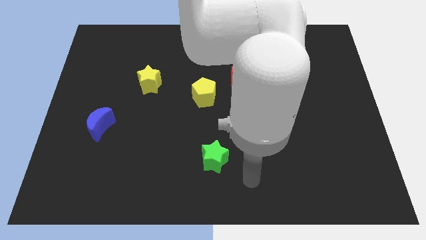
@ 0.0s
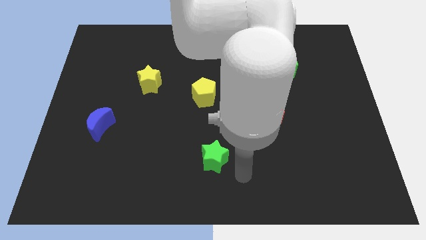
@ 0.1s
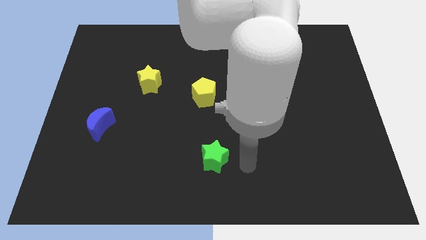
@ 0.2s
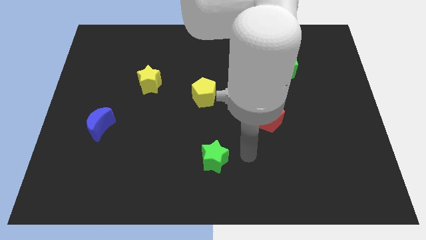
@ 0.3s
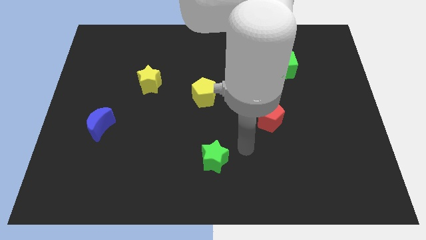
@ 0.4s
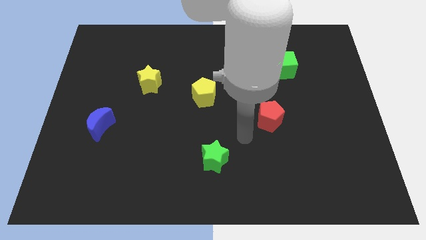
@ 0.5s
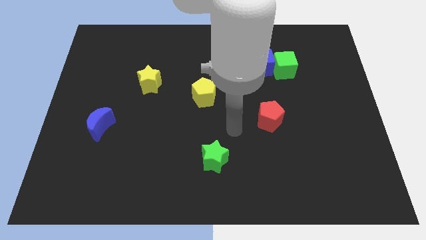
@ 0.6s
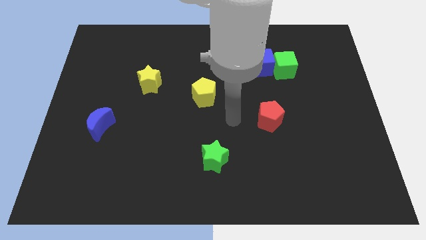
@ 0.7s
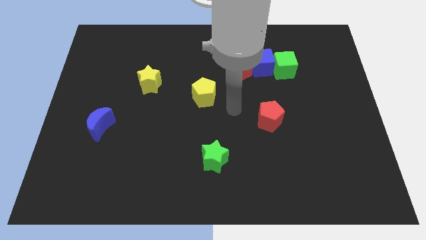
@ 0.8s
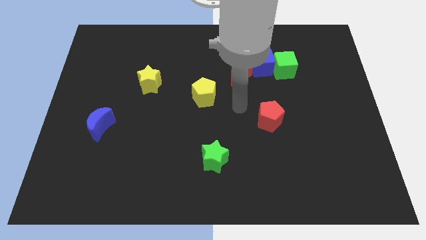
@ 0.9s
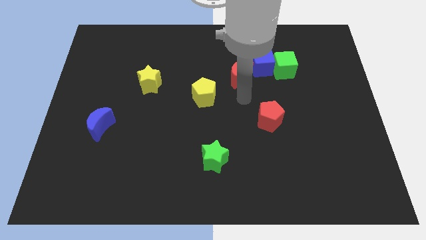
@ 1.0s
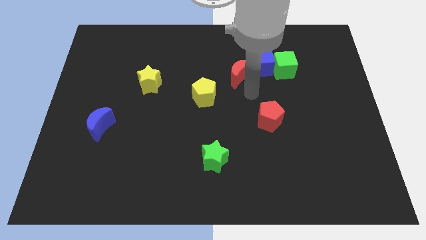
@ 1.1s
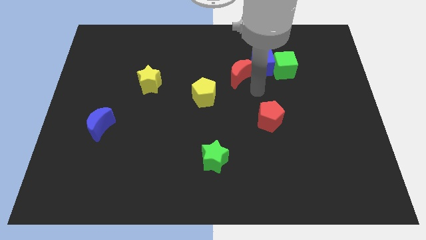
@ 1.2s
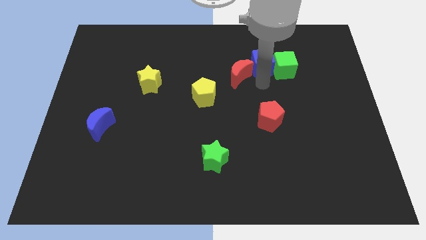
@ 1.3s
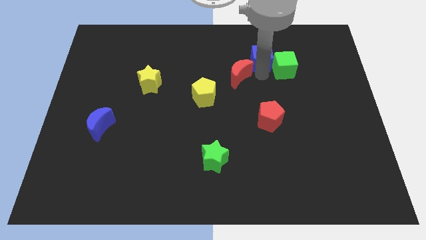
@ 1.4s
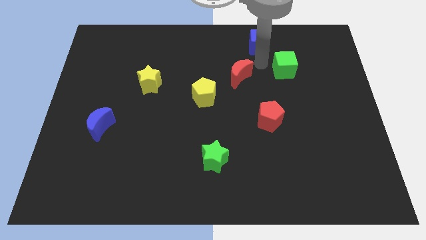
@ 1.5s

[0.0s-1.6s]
move the green cube away from the blue cube

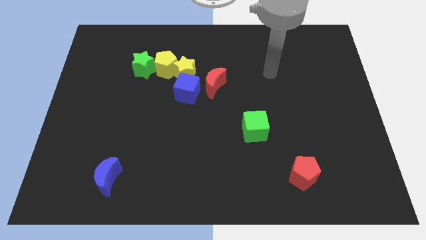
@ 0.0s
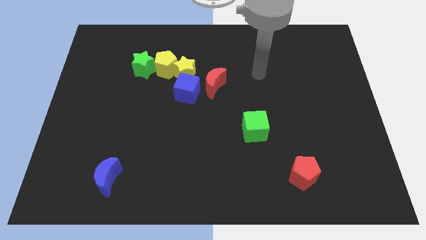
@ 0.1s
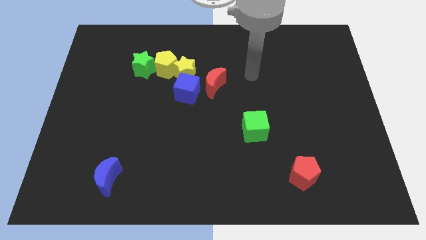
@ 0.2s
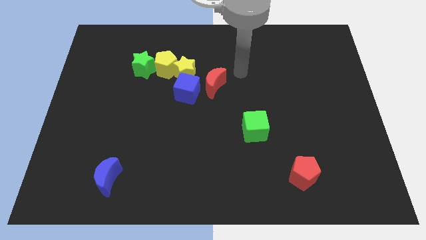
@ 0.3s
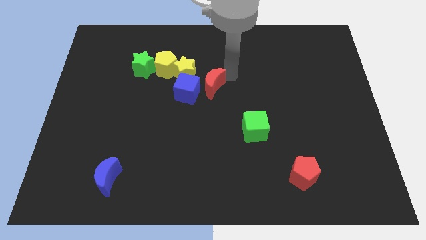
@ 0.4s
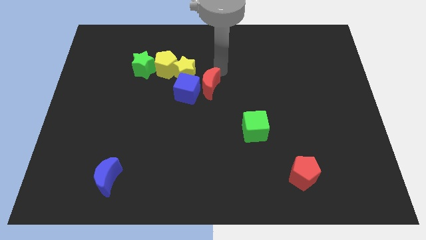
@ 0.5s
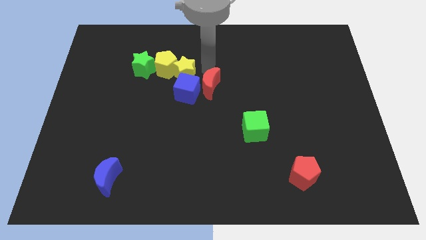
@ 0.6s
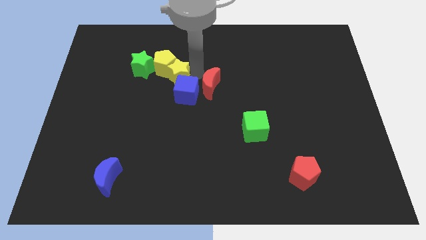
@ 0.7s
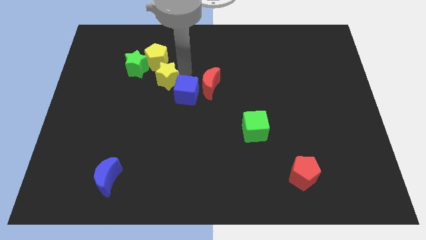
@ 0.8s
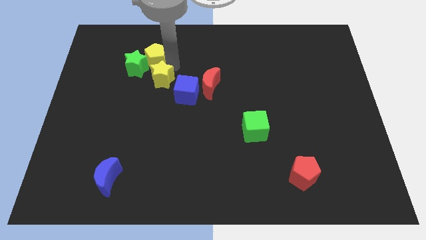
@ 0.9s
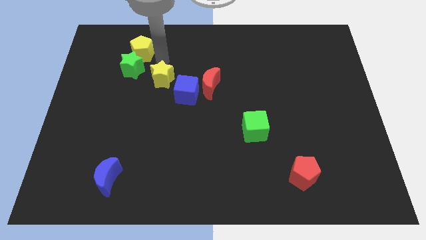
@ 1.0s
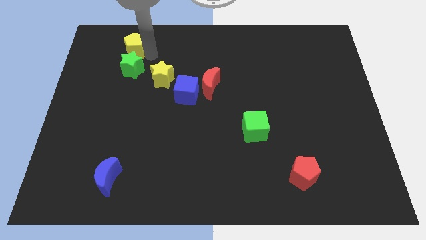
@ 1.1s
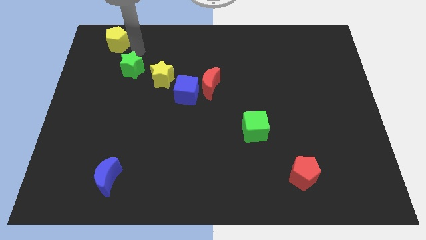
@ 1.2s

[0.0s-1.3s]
move the green star away from the yellow pentagon

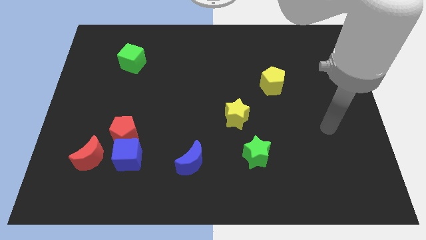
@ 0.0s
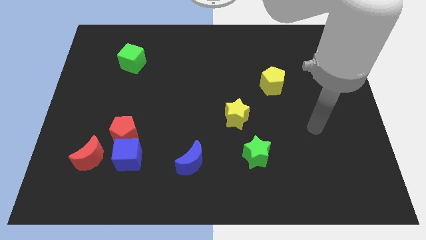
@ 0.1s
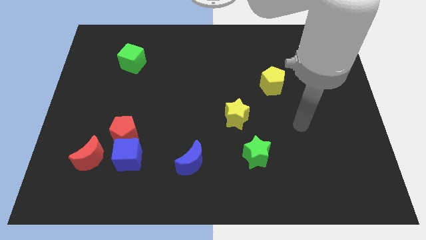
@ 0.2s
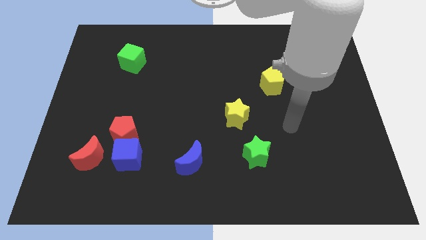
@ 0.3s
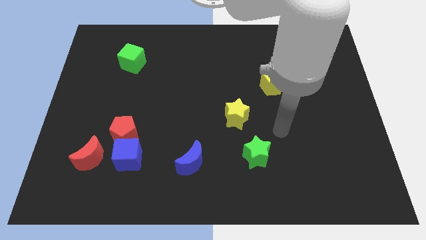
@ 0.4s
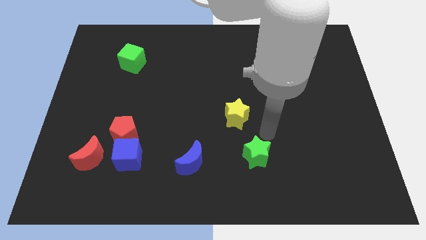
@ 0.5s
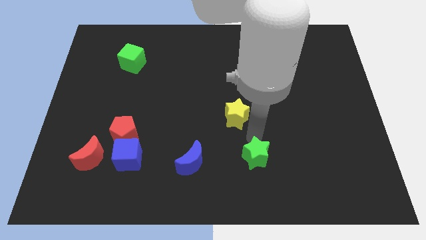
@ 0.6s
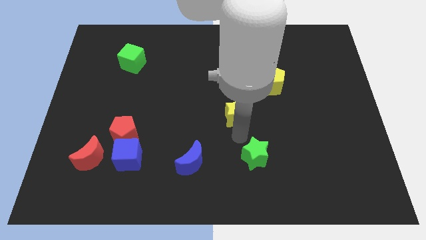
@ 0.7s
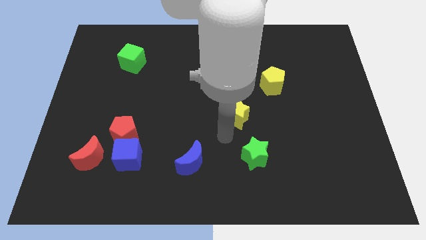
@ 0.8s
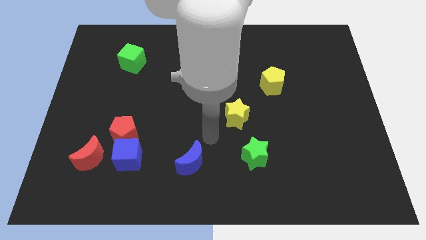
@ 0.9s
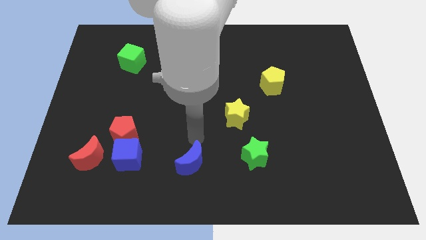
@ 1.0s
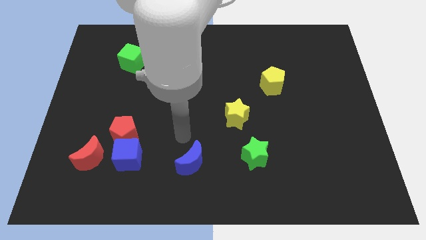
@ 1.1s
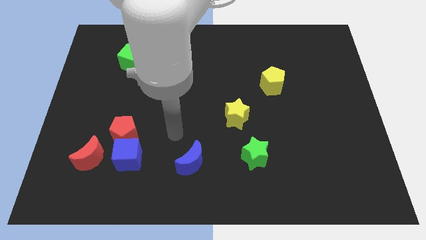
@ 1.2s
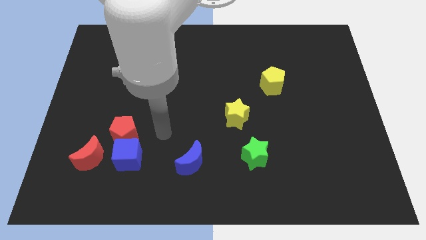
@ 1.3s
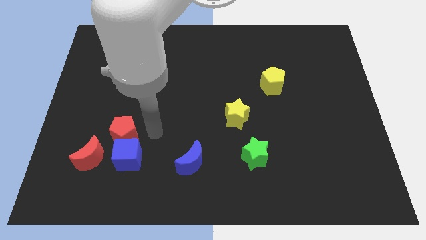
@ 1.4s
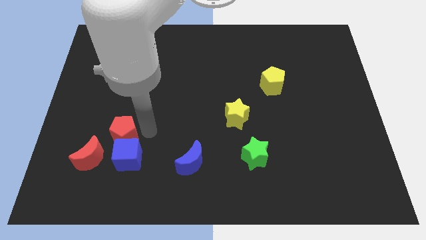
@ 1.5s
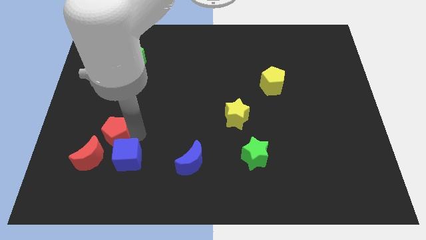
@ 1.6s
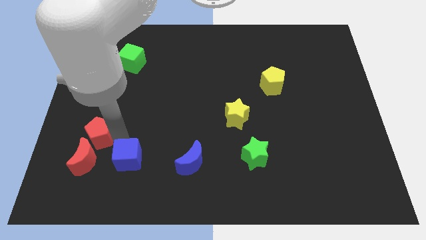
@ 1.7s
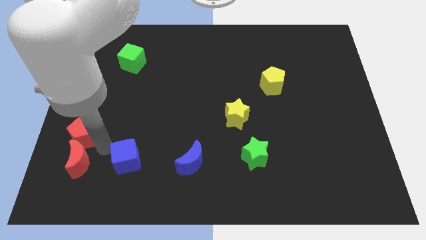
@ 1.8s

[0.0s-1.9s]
move the blue cube away from the red pentagon and red moon

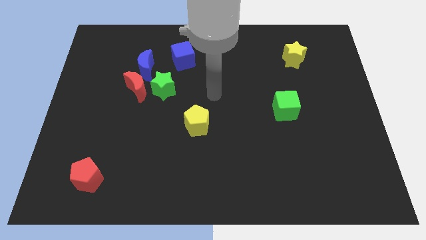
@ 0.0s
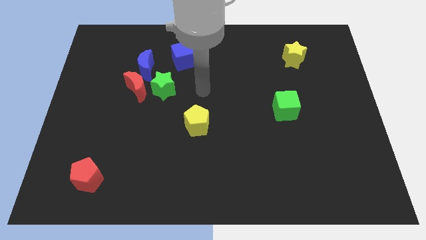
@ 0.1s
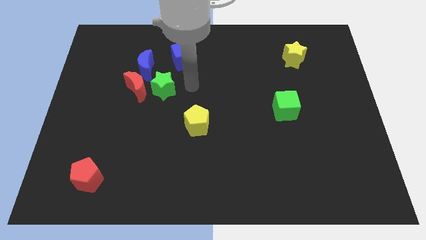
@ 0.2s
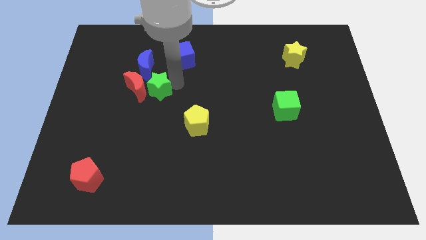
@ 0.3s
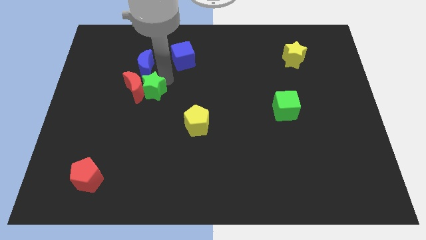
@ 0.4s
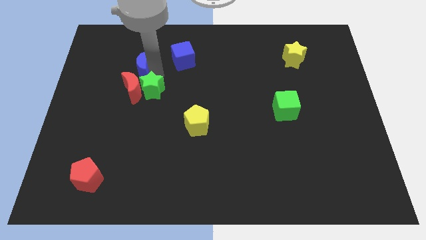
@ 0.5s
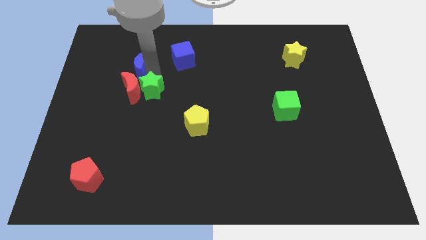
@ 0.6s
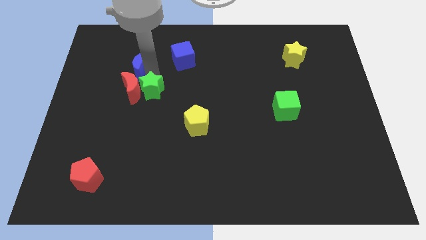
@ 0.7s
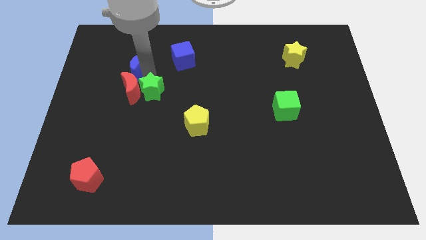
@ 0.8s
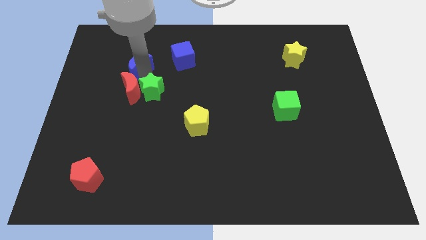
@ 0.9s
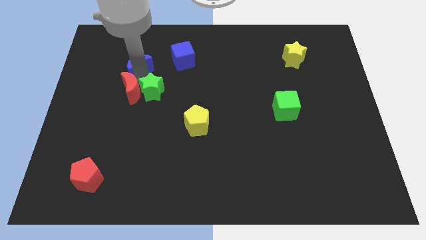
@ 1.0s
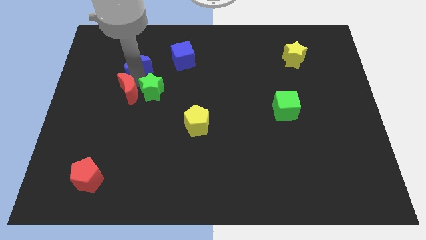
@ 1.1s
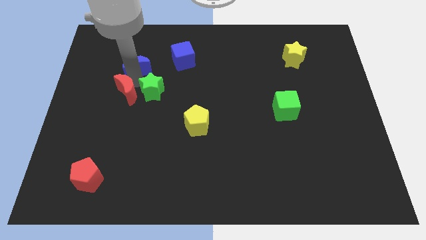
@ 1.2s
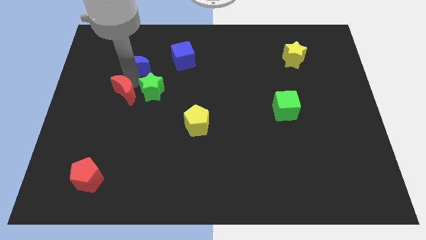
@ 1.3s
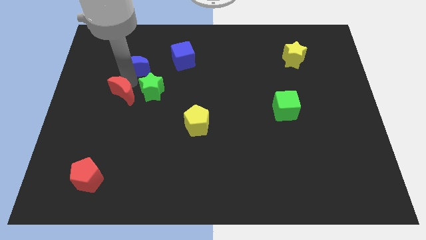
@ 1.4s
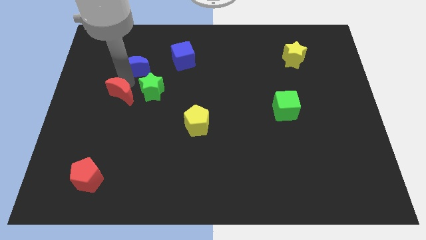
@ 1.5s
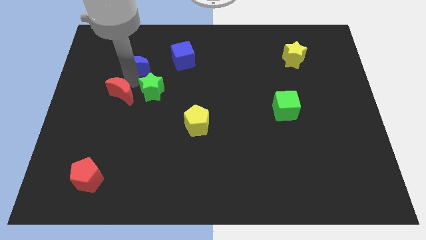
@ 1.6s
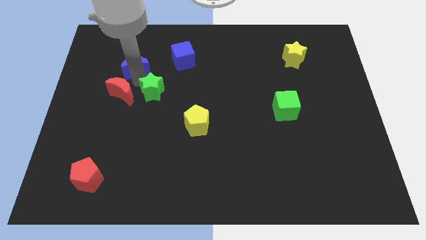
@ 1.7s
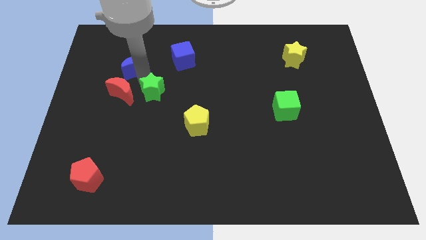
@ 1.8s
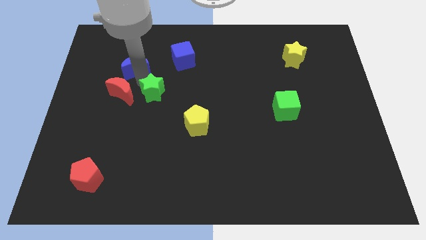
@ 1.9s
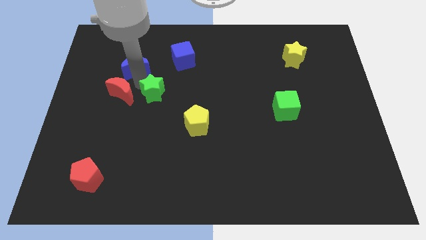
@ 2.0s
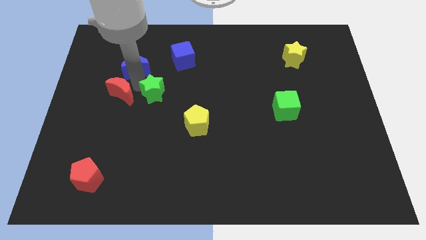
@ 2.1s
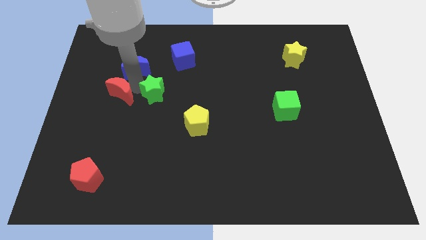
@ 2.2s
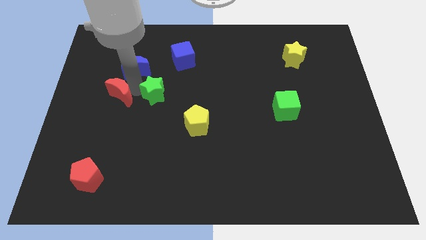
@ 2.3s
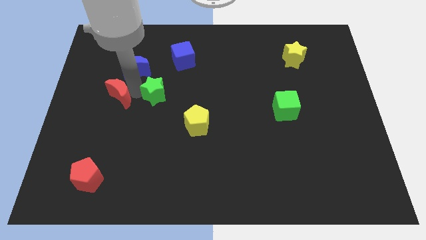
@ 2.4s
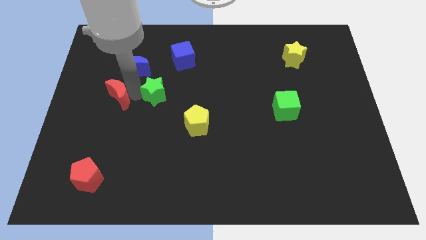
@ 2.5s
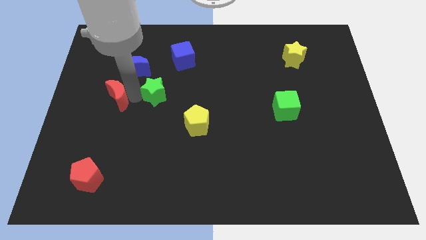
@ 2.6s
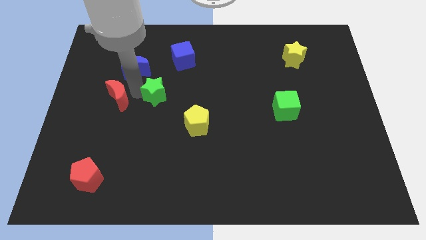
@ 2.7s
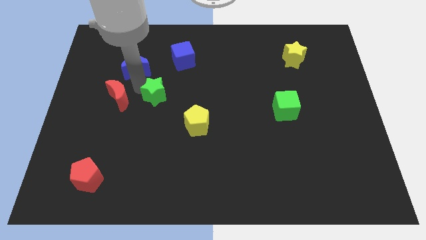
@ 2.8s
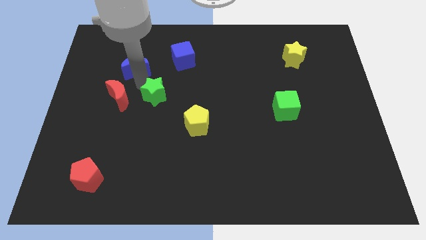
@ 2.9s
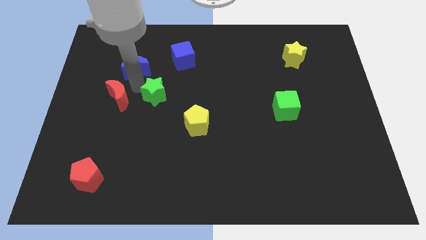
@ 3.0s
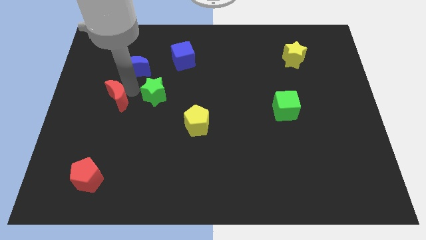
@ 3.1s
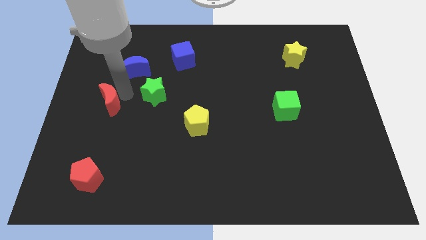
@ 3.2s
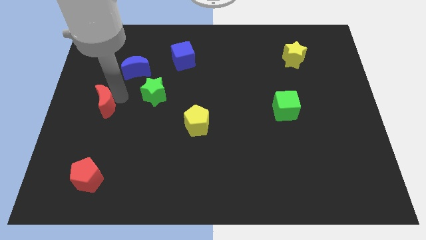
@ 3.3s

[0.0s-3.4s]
separate the red moon from the green star and blue moon

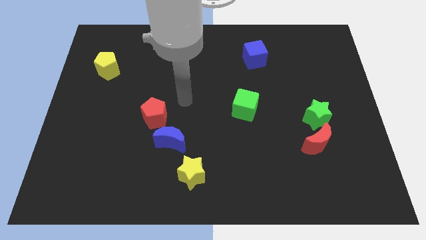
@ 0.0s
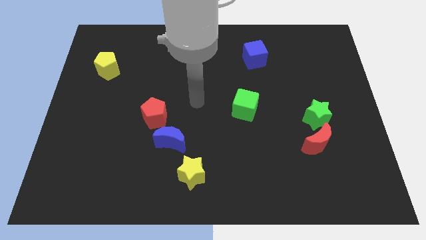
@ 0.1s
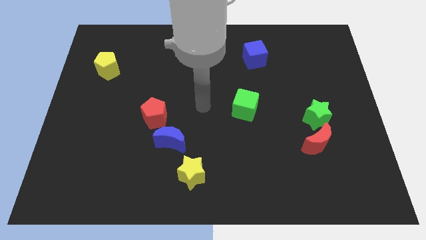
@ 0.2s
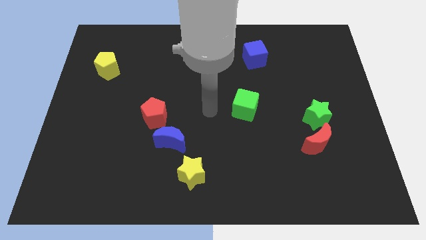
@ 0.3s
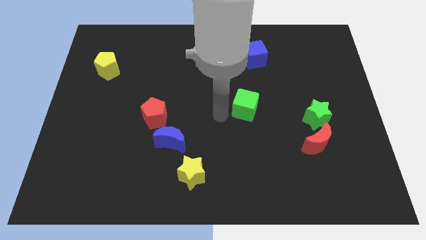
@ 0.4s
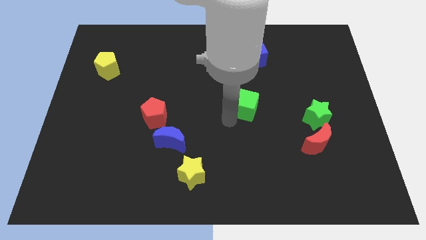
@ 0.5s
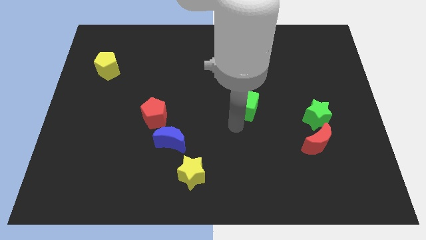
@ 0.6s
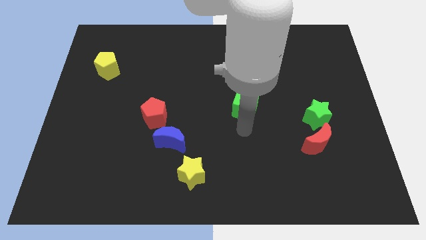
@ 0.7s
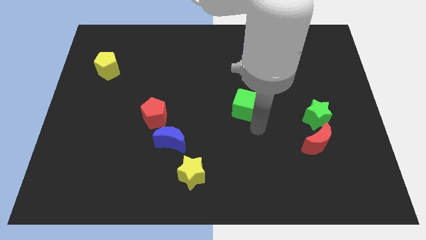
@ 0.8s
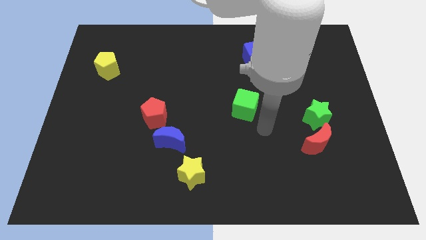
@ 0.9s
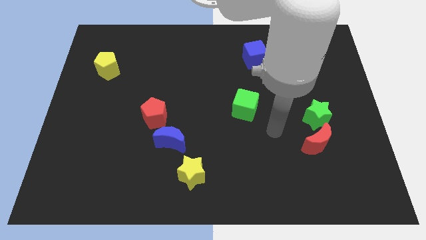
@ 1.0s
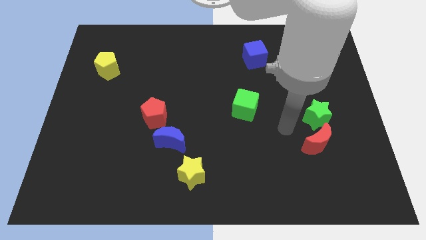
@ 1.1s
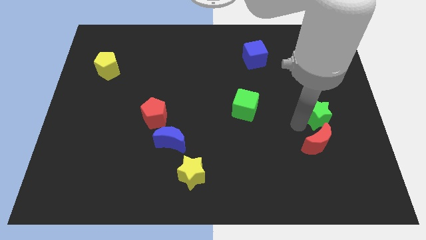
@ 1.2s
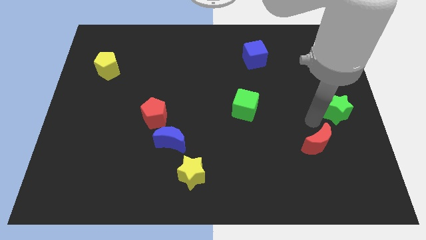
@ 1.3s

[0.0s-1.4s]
pull the red moon apart from the green star
